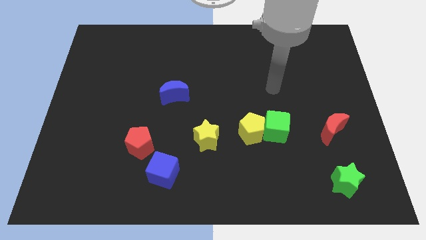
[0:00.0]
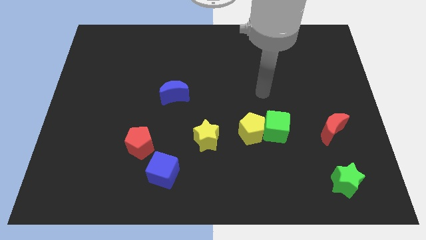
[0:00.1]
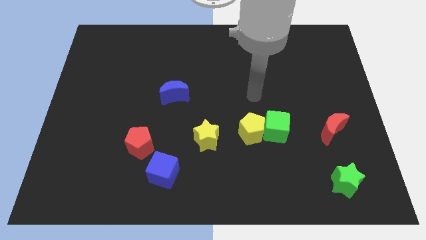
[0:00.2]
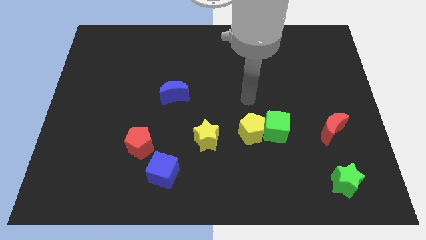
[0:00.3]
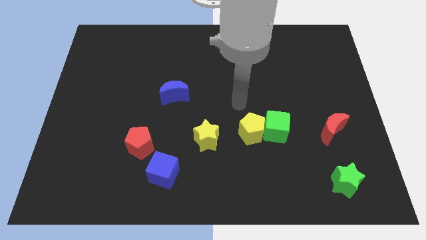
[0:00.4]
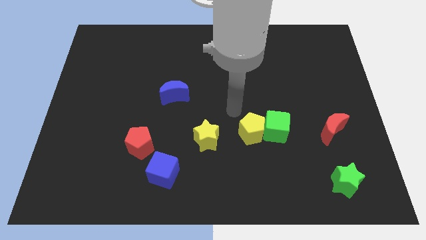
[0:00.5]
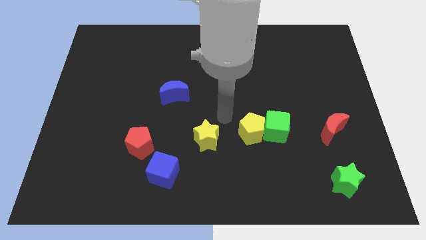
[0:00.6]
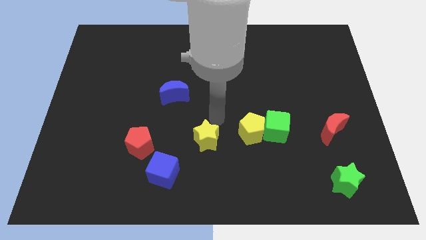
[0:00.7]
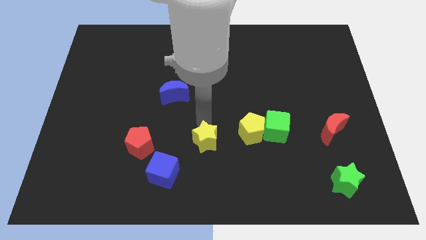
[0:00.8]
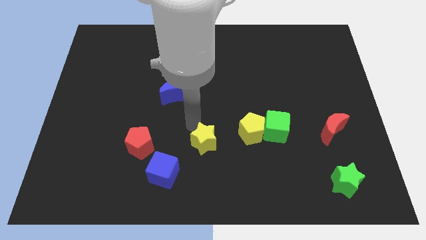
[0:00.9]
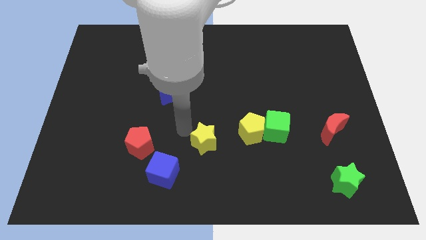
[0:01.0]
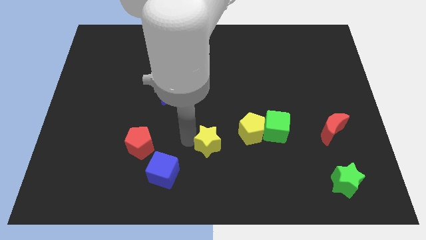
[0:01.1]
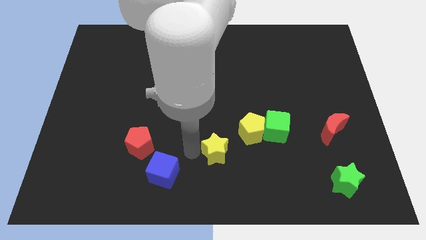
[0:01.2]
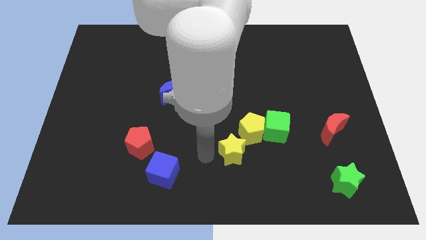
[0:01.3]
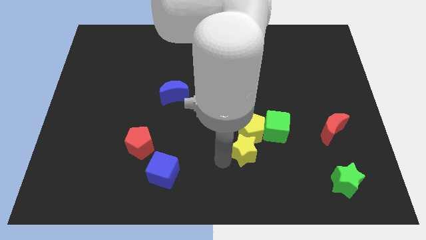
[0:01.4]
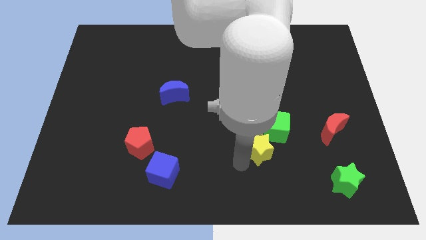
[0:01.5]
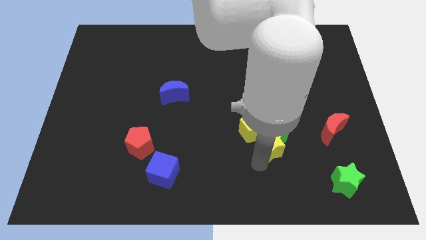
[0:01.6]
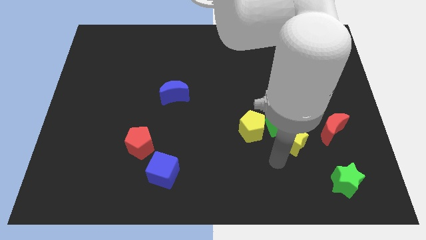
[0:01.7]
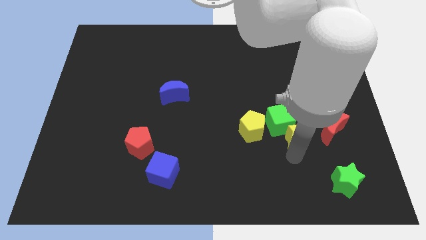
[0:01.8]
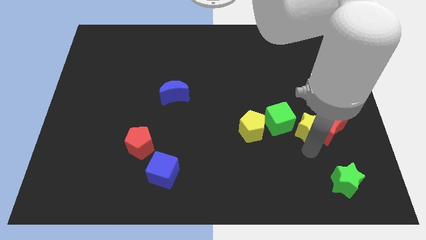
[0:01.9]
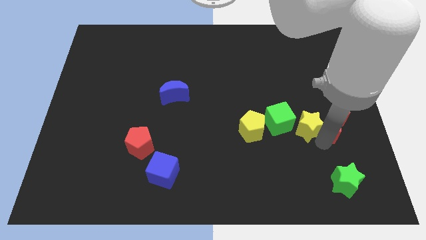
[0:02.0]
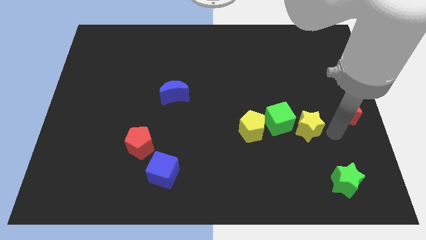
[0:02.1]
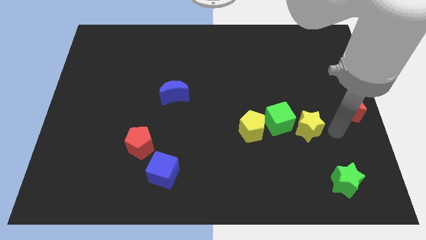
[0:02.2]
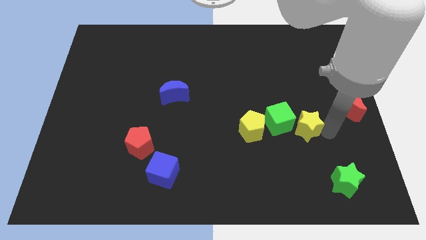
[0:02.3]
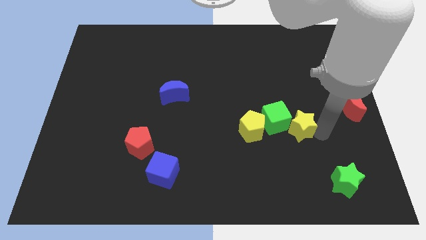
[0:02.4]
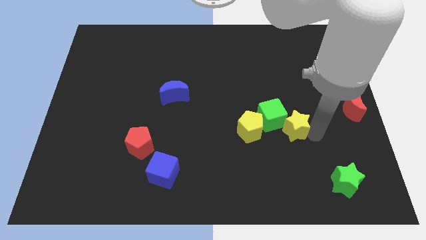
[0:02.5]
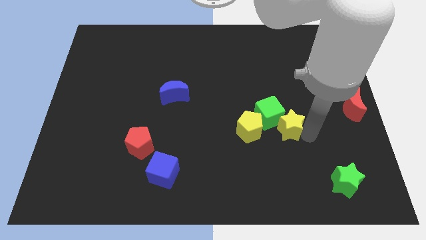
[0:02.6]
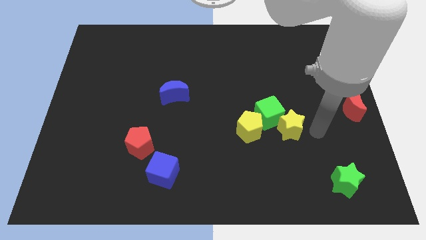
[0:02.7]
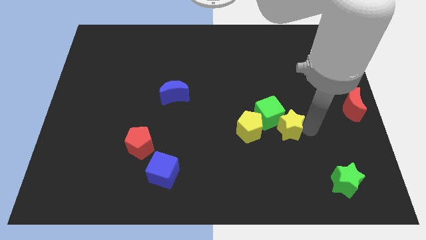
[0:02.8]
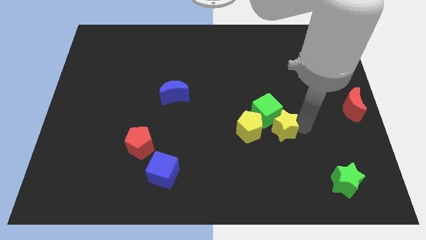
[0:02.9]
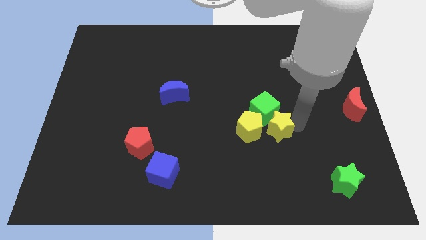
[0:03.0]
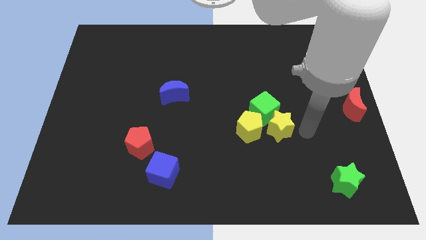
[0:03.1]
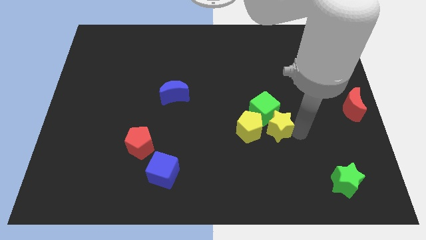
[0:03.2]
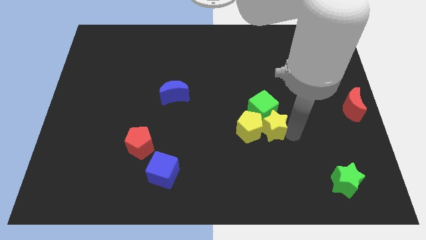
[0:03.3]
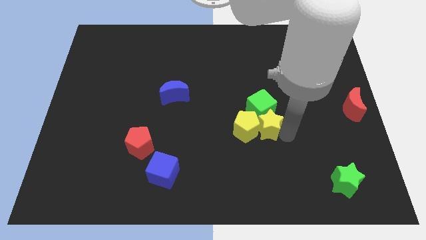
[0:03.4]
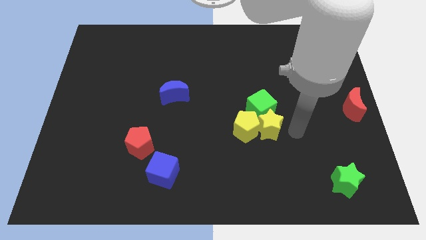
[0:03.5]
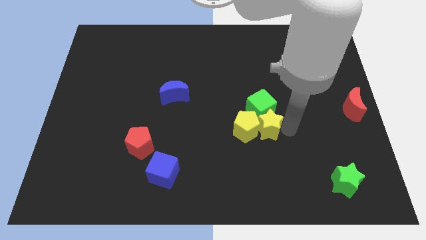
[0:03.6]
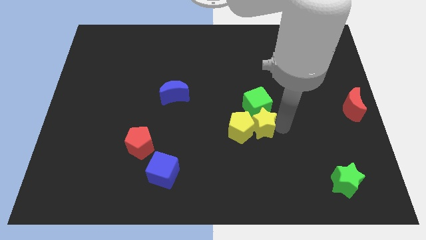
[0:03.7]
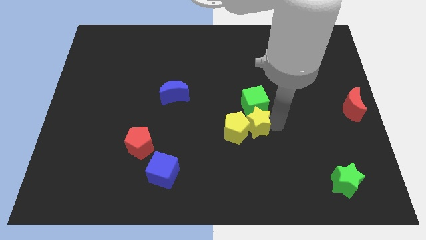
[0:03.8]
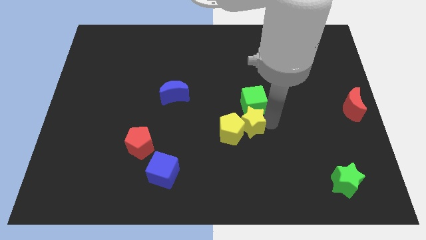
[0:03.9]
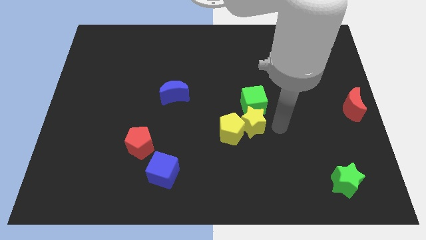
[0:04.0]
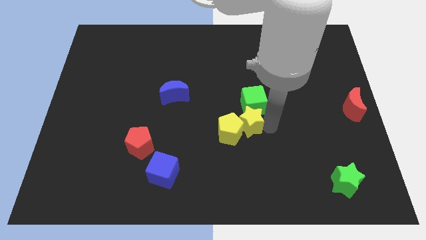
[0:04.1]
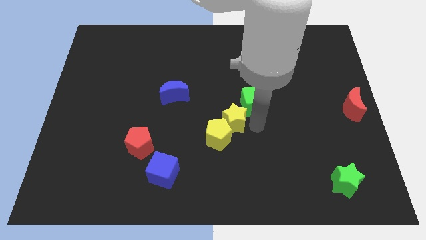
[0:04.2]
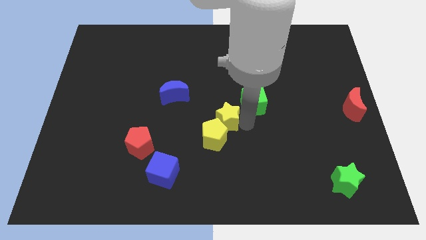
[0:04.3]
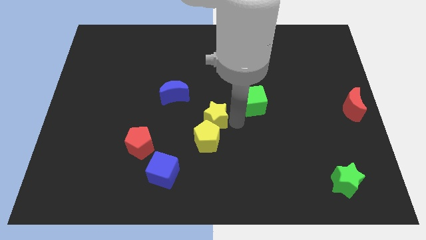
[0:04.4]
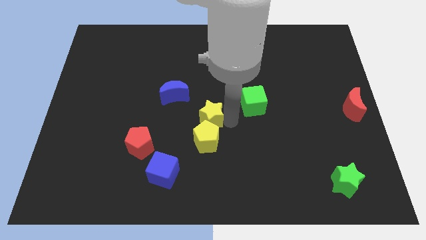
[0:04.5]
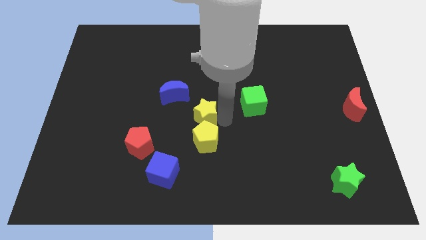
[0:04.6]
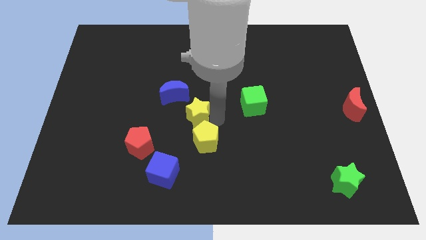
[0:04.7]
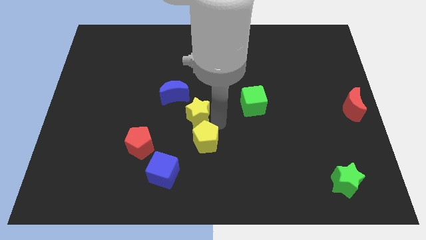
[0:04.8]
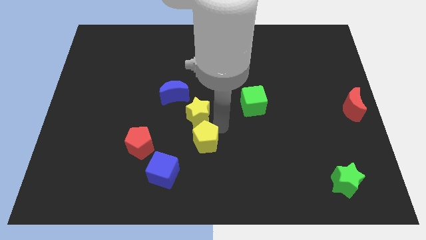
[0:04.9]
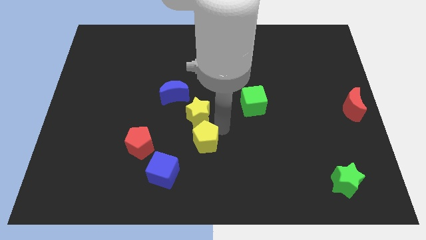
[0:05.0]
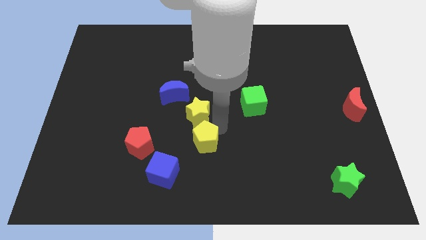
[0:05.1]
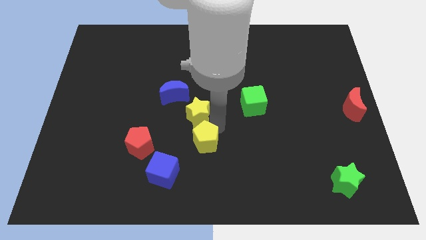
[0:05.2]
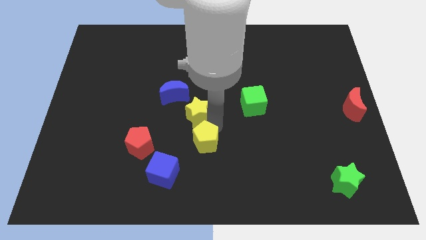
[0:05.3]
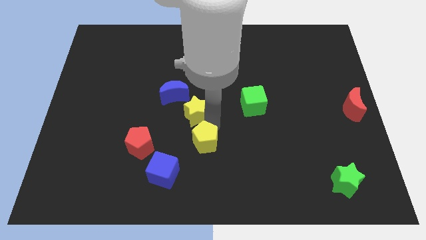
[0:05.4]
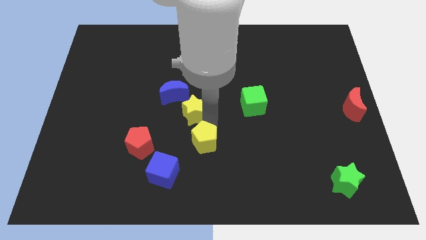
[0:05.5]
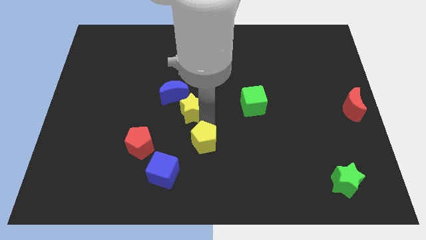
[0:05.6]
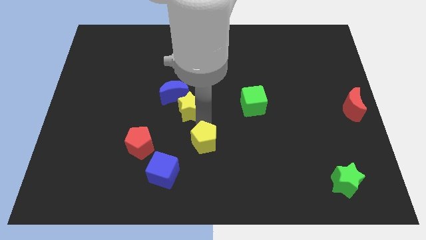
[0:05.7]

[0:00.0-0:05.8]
move the yellow star to the blue moon

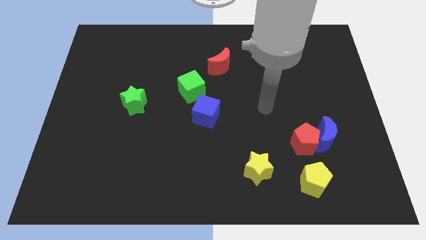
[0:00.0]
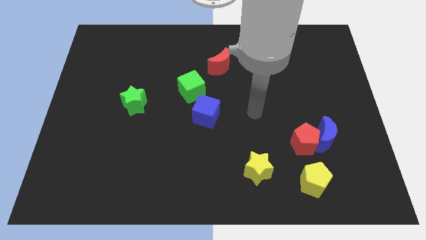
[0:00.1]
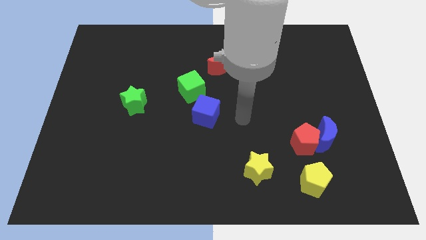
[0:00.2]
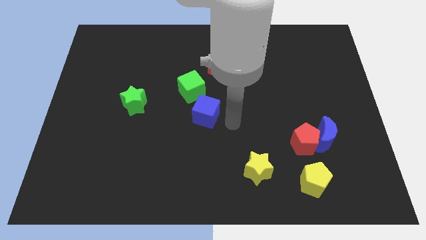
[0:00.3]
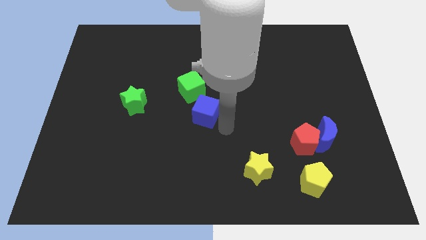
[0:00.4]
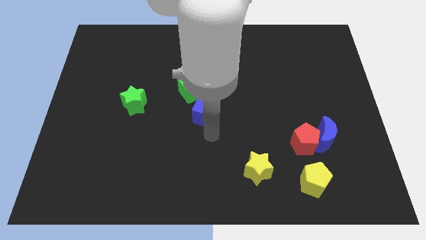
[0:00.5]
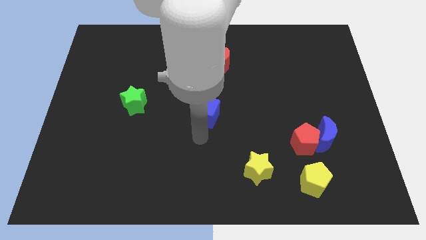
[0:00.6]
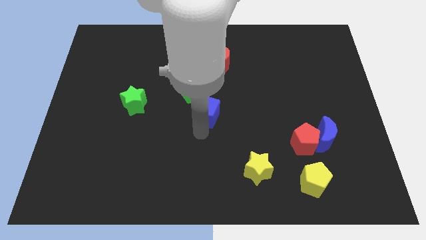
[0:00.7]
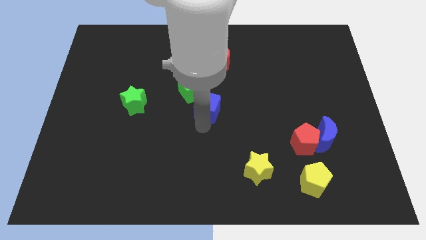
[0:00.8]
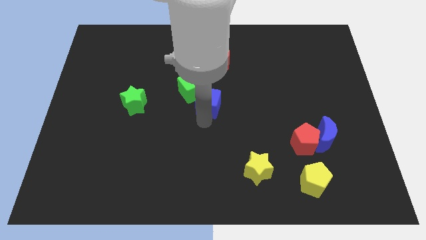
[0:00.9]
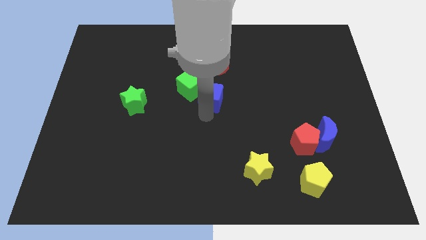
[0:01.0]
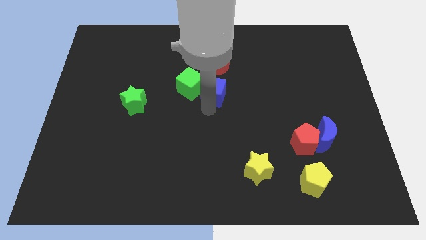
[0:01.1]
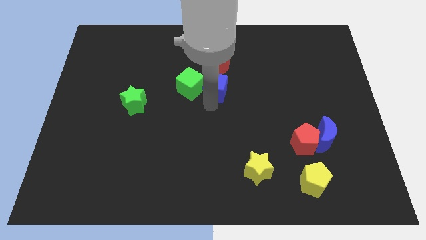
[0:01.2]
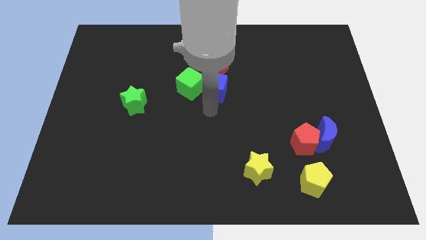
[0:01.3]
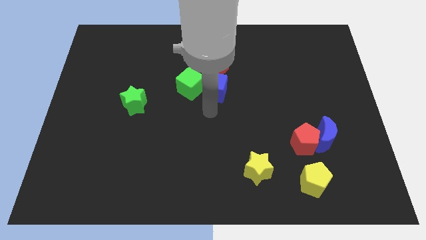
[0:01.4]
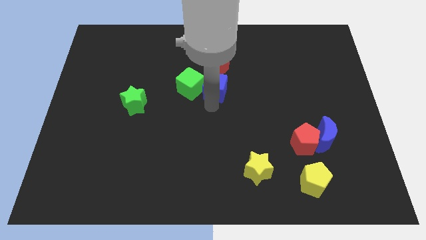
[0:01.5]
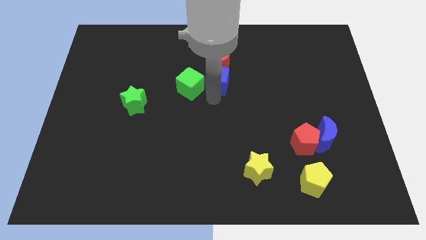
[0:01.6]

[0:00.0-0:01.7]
move the blue cube close to the red moon
